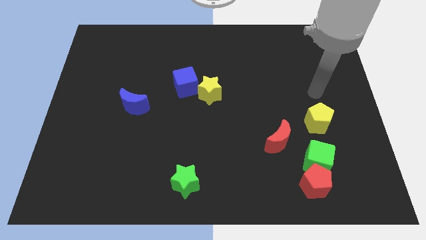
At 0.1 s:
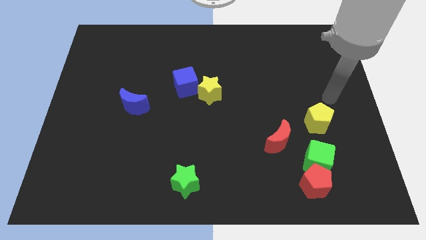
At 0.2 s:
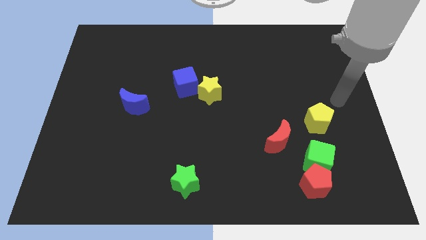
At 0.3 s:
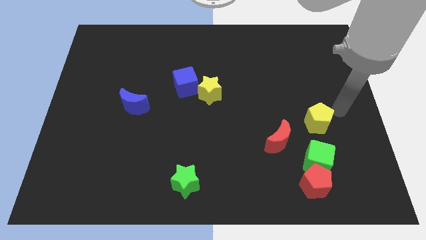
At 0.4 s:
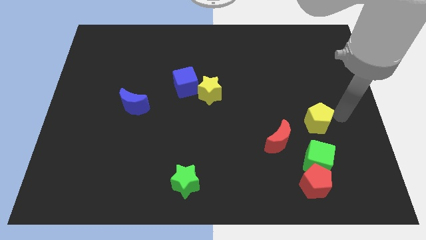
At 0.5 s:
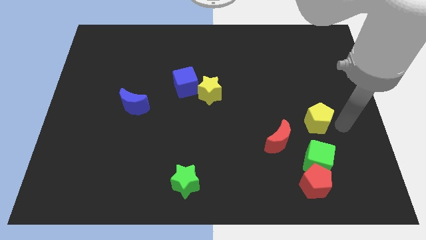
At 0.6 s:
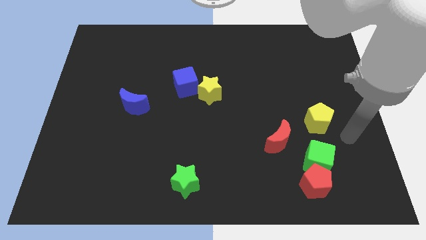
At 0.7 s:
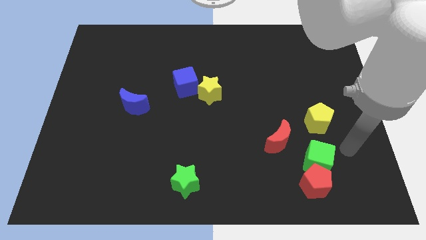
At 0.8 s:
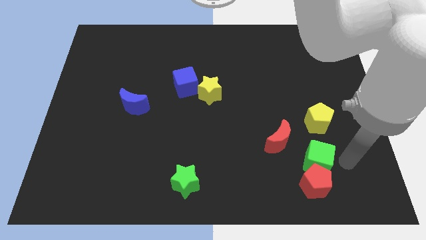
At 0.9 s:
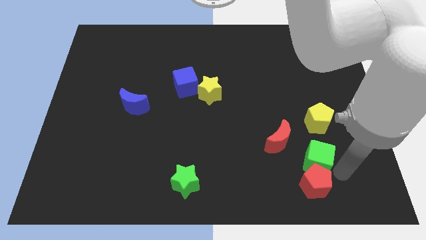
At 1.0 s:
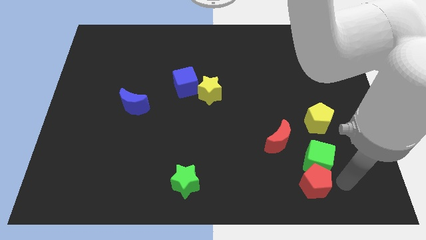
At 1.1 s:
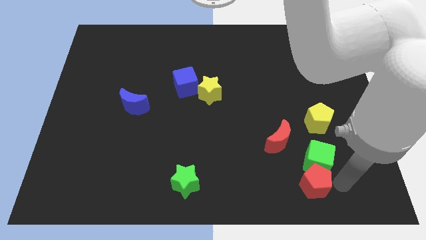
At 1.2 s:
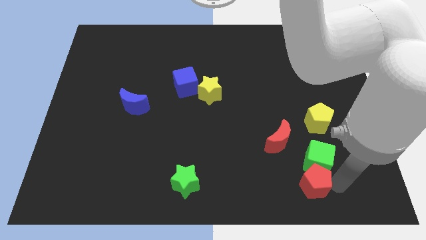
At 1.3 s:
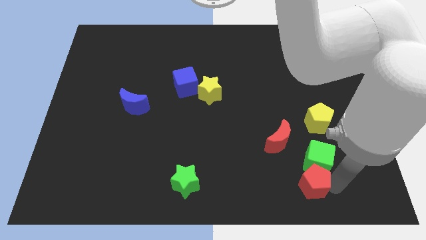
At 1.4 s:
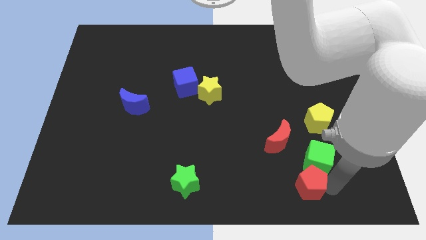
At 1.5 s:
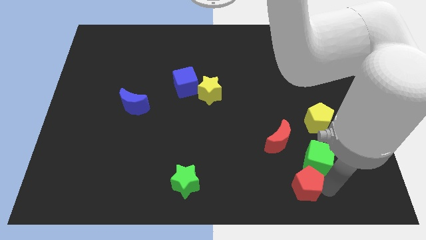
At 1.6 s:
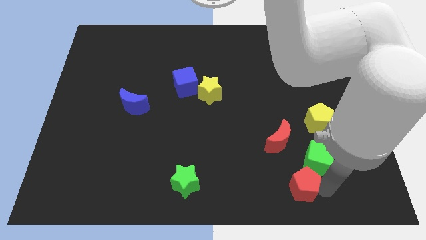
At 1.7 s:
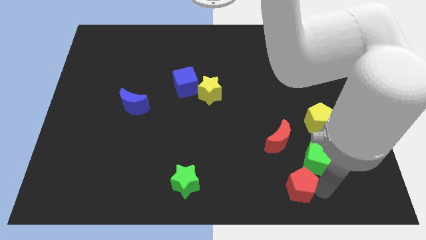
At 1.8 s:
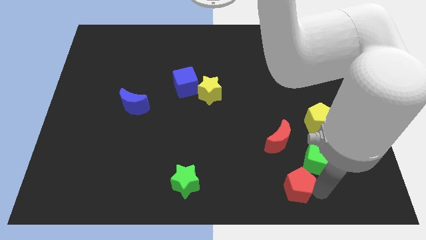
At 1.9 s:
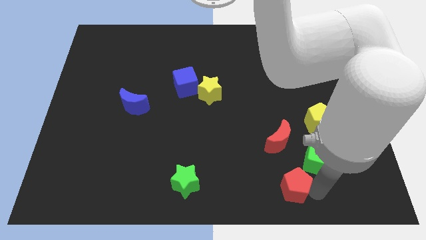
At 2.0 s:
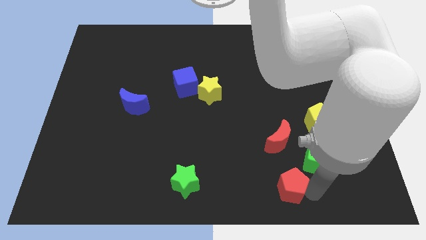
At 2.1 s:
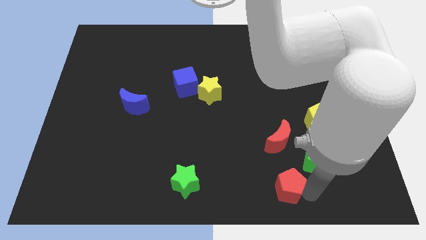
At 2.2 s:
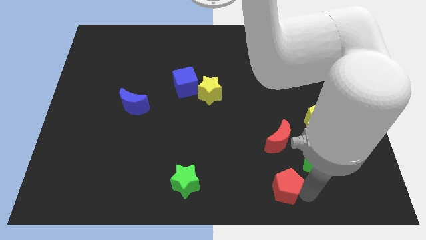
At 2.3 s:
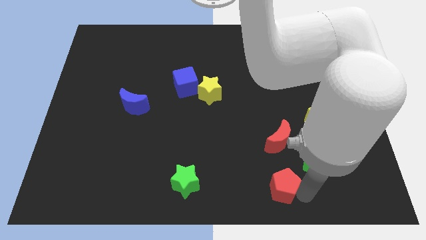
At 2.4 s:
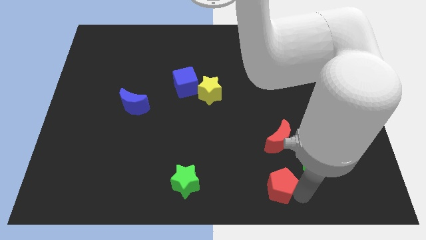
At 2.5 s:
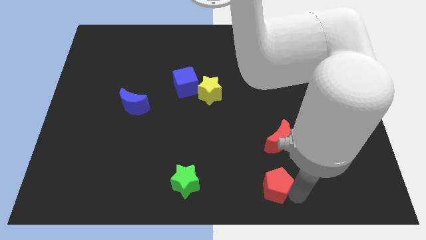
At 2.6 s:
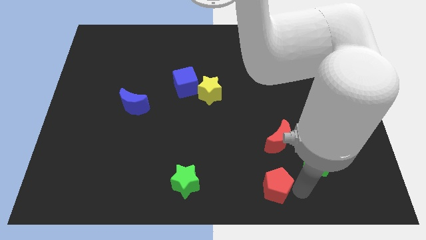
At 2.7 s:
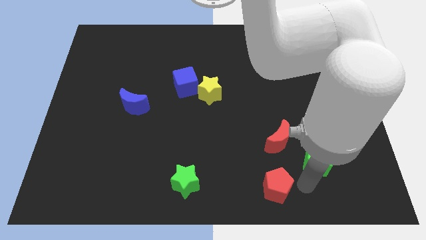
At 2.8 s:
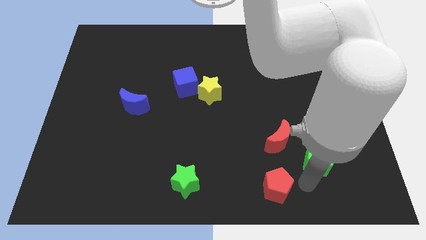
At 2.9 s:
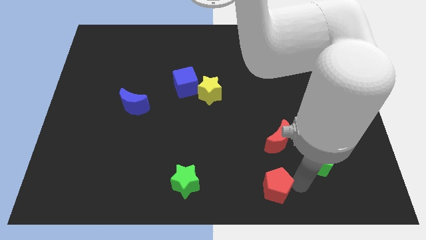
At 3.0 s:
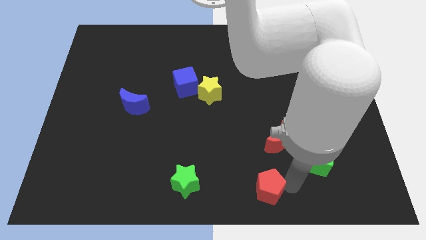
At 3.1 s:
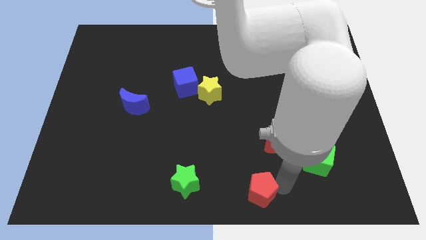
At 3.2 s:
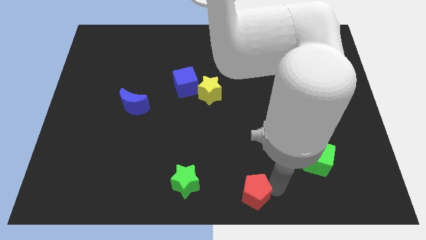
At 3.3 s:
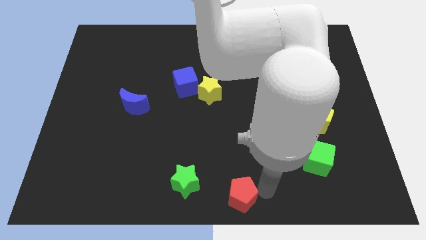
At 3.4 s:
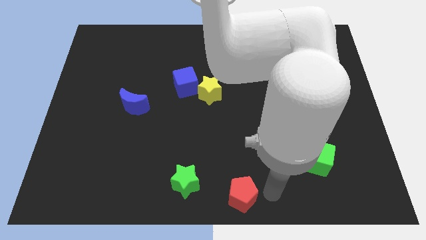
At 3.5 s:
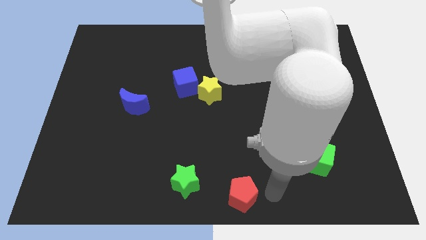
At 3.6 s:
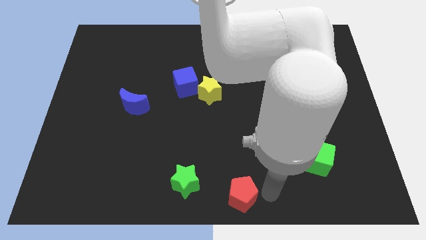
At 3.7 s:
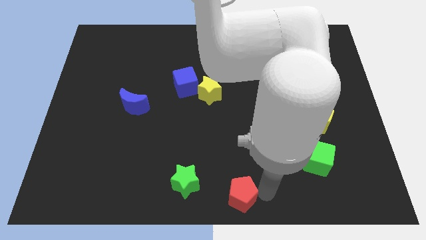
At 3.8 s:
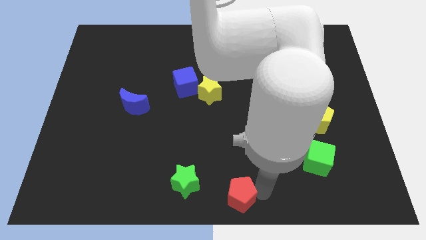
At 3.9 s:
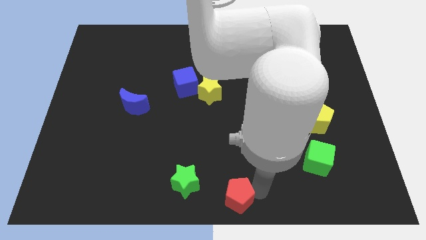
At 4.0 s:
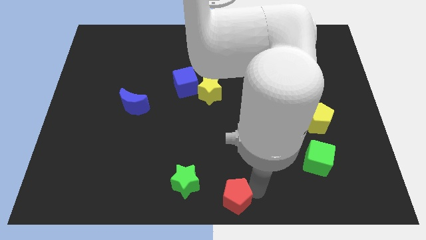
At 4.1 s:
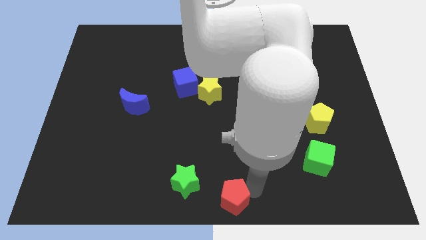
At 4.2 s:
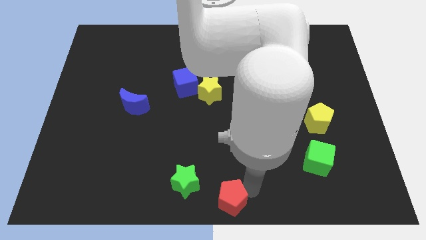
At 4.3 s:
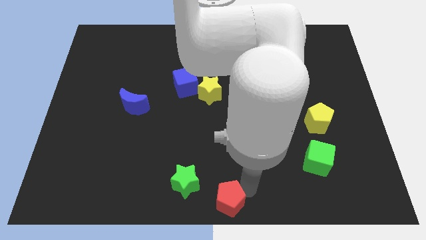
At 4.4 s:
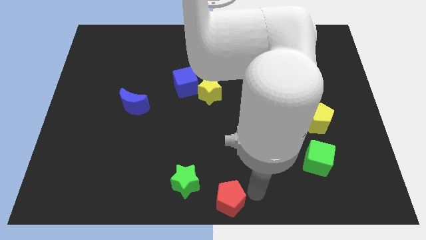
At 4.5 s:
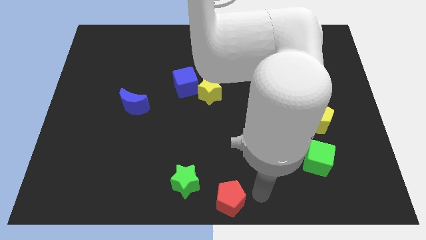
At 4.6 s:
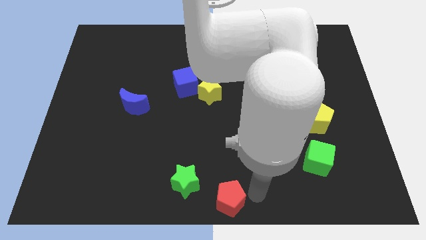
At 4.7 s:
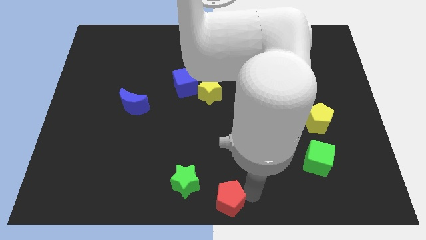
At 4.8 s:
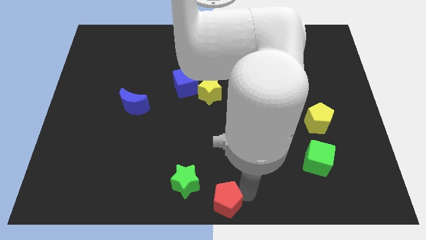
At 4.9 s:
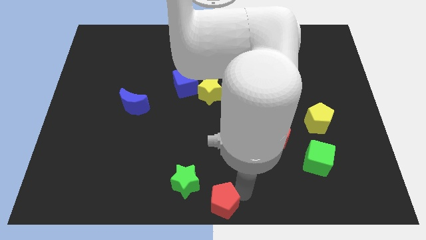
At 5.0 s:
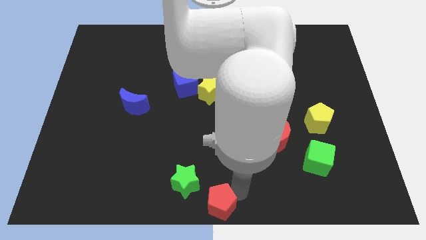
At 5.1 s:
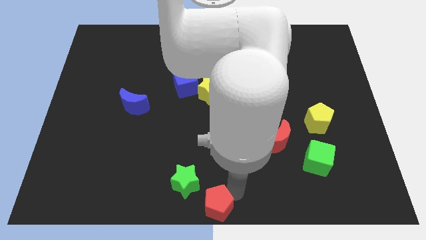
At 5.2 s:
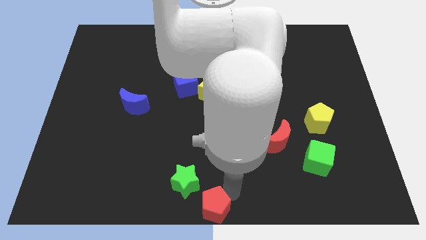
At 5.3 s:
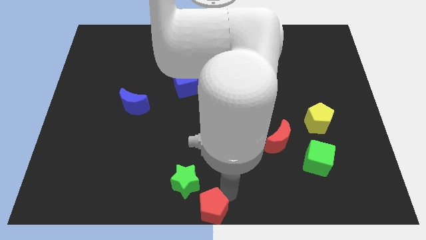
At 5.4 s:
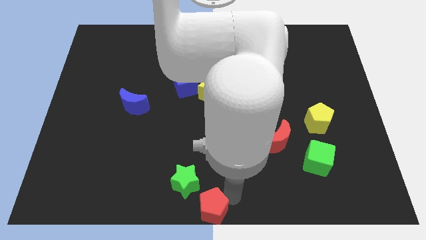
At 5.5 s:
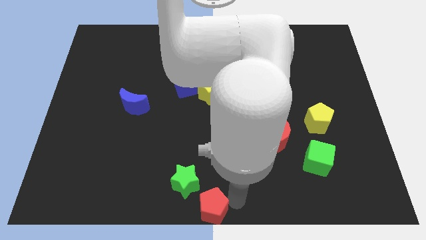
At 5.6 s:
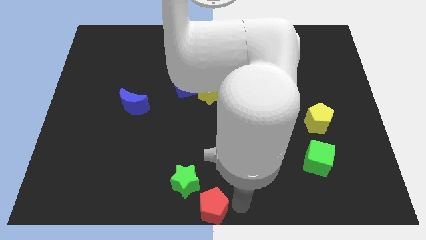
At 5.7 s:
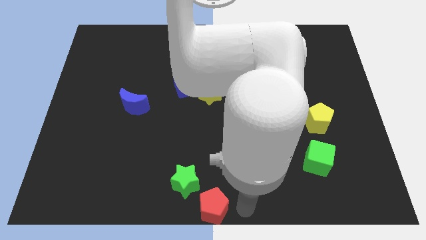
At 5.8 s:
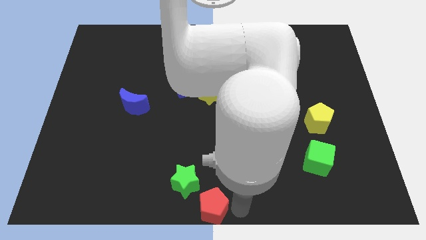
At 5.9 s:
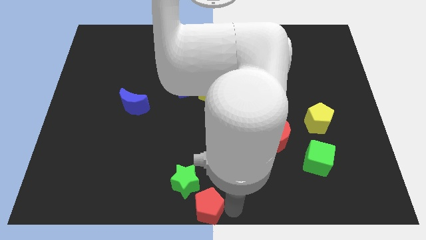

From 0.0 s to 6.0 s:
slide the red pentagon left

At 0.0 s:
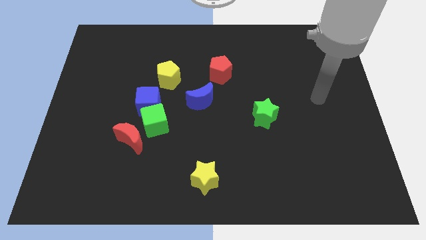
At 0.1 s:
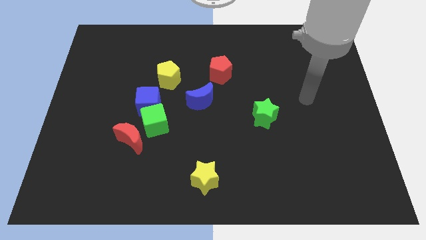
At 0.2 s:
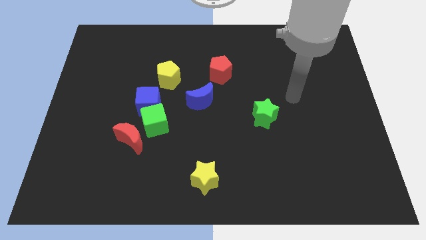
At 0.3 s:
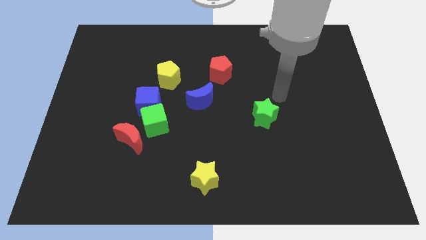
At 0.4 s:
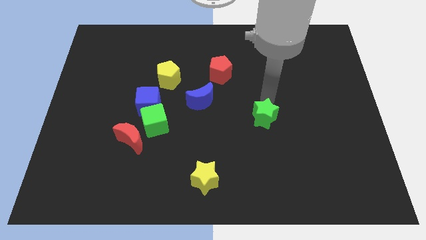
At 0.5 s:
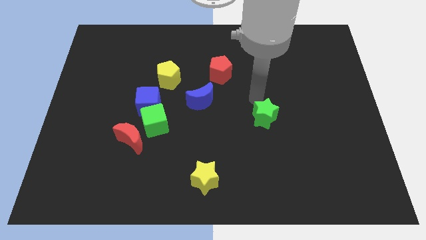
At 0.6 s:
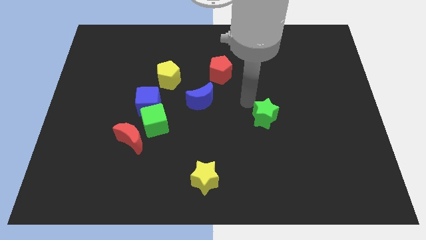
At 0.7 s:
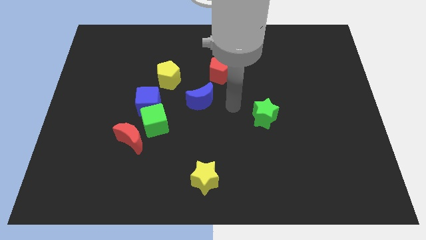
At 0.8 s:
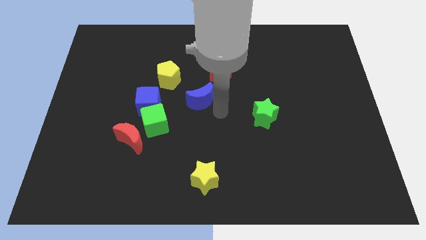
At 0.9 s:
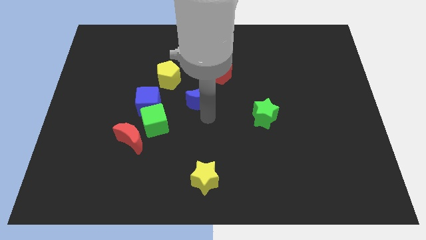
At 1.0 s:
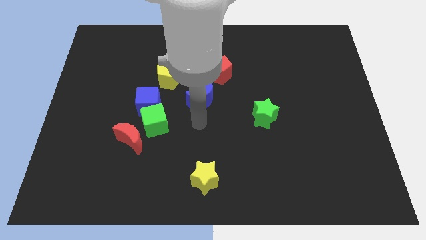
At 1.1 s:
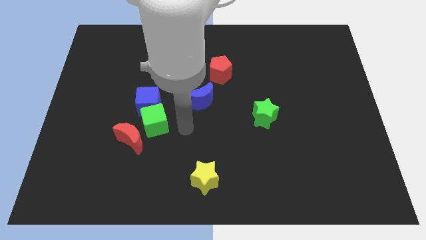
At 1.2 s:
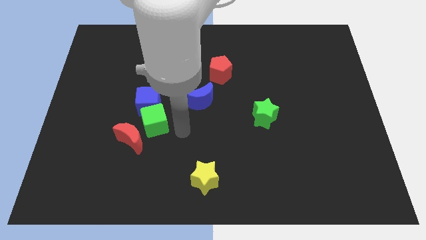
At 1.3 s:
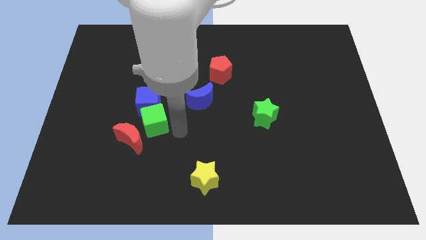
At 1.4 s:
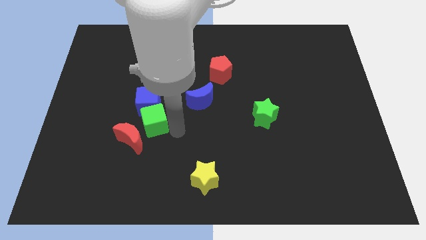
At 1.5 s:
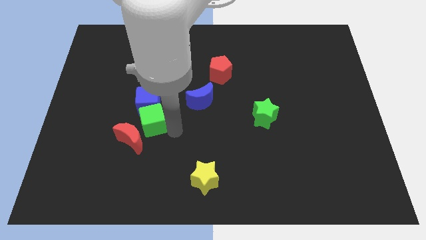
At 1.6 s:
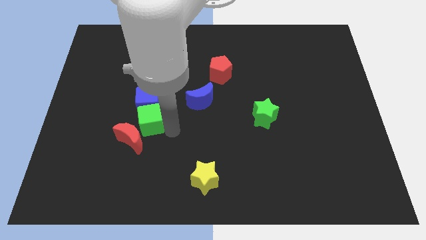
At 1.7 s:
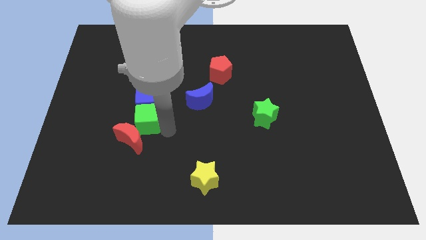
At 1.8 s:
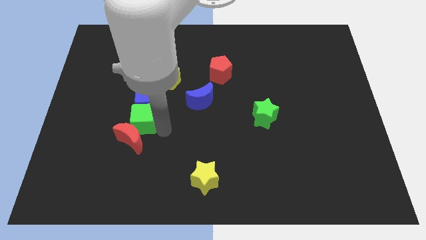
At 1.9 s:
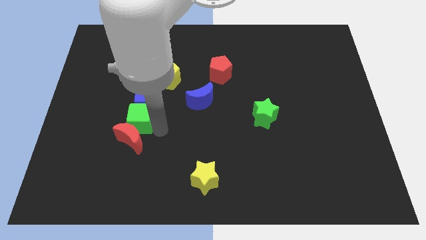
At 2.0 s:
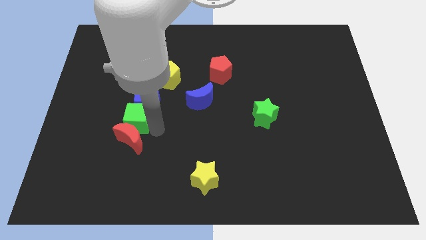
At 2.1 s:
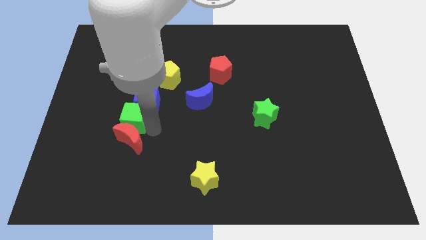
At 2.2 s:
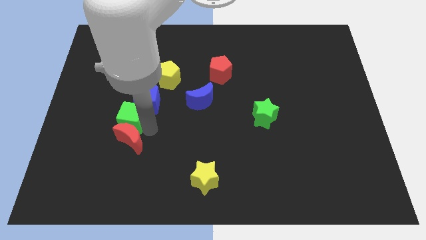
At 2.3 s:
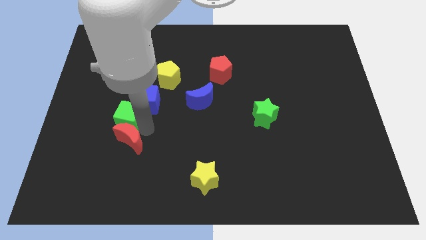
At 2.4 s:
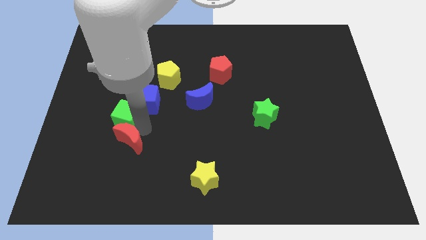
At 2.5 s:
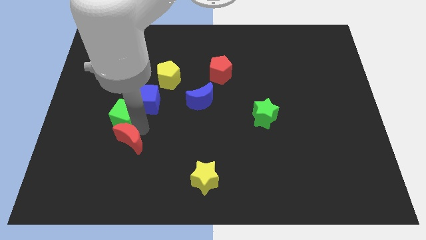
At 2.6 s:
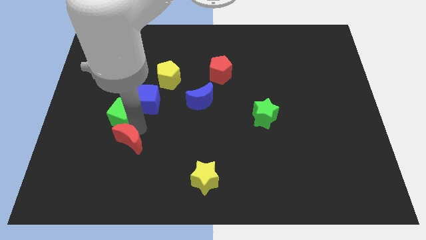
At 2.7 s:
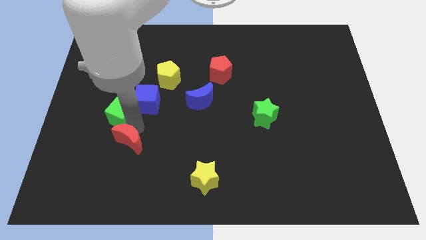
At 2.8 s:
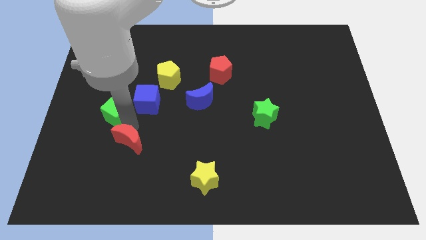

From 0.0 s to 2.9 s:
slide the green cube upwards and to the left a bit
